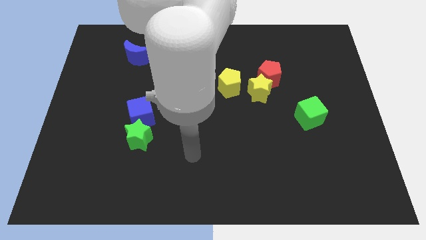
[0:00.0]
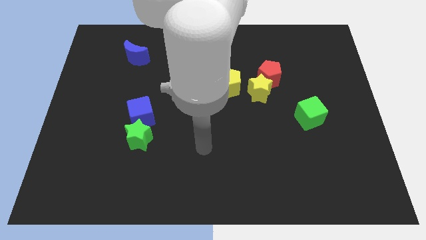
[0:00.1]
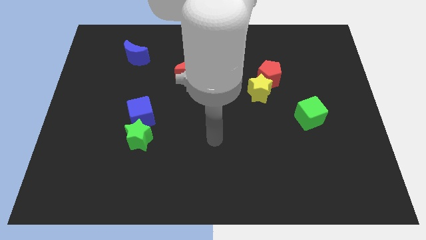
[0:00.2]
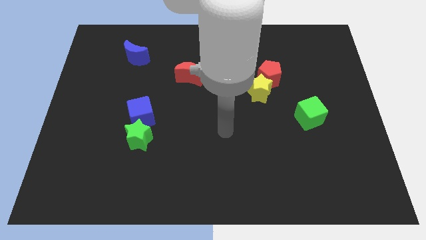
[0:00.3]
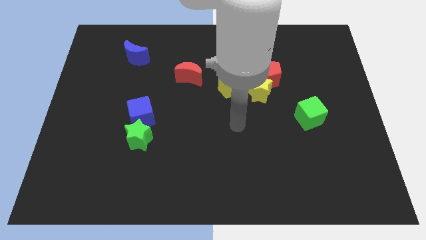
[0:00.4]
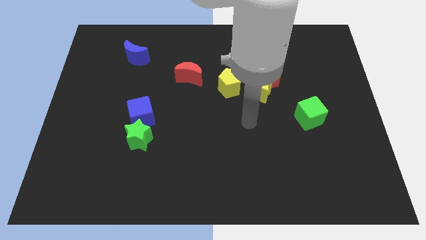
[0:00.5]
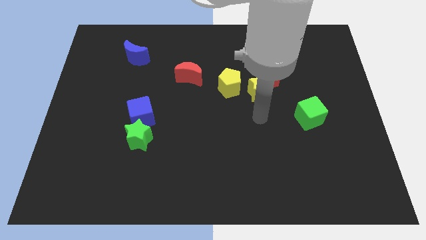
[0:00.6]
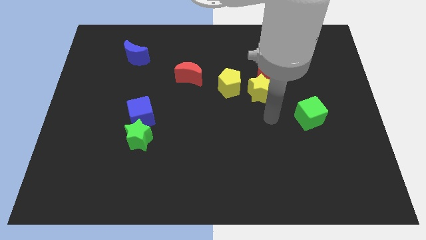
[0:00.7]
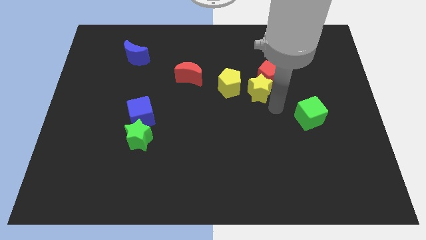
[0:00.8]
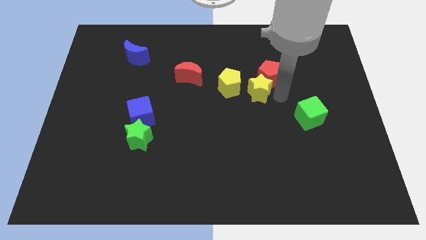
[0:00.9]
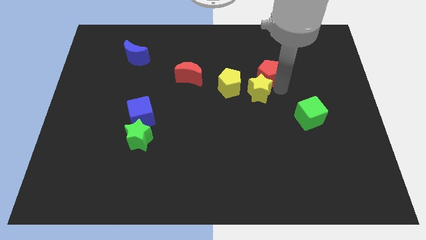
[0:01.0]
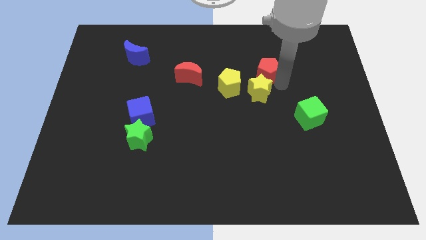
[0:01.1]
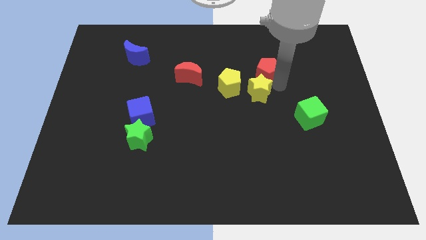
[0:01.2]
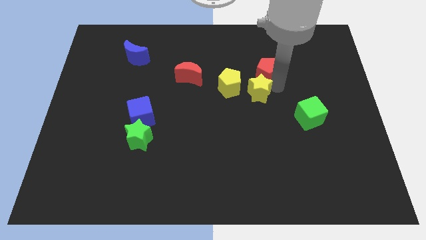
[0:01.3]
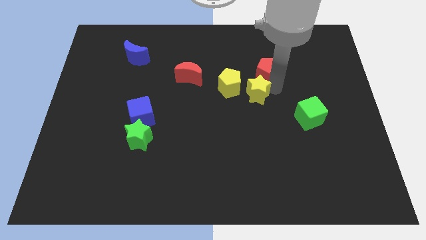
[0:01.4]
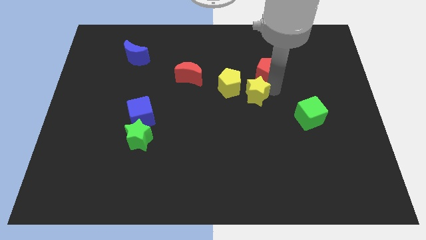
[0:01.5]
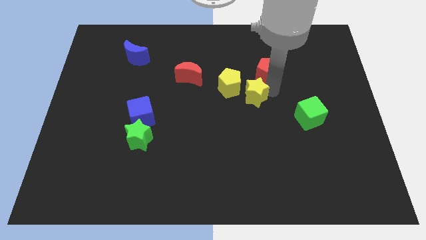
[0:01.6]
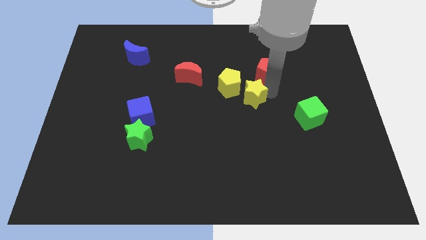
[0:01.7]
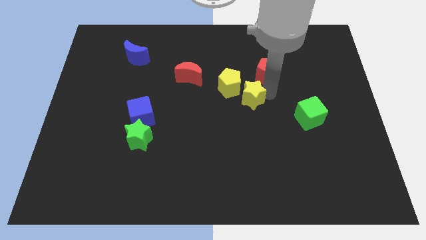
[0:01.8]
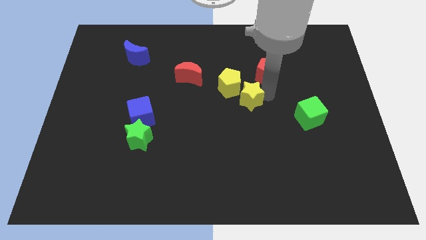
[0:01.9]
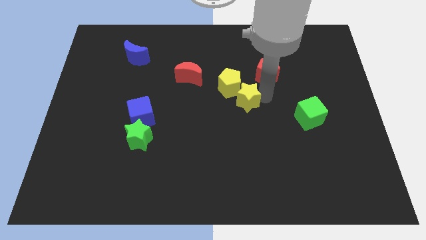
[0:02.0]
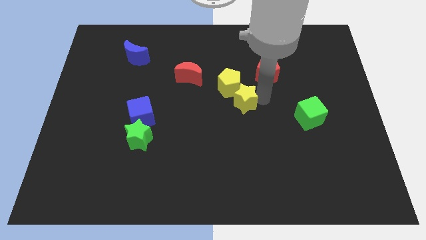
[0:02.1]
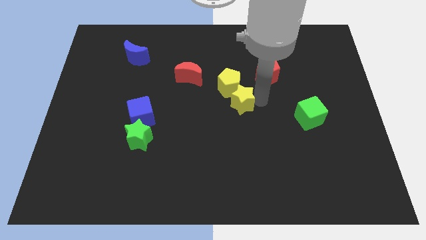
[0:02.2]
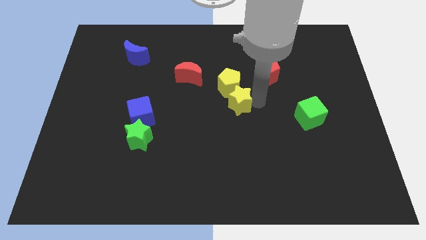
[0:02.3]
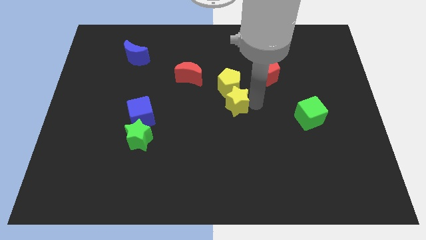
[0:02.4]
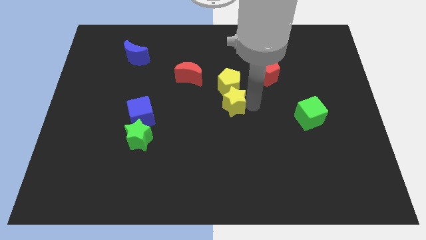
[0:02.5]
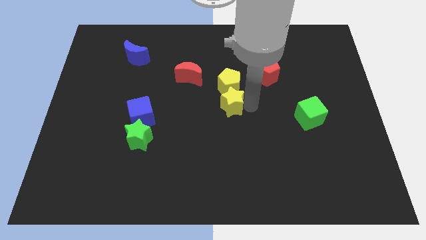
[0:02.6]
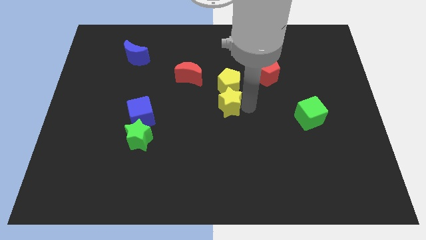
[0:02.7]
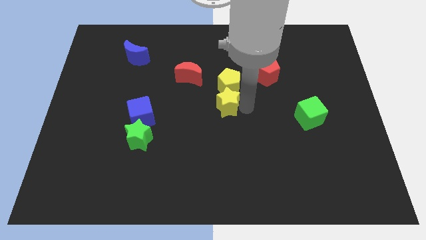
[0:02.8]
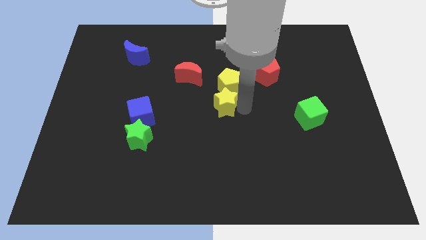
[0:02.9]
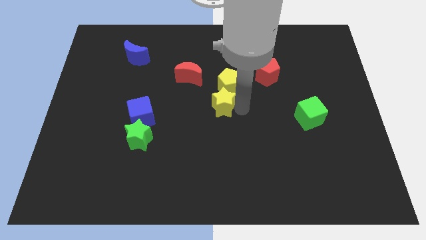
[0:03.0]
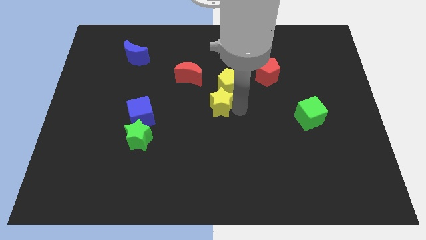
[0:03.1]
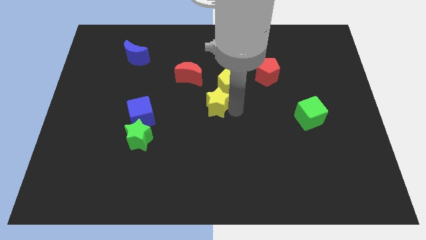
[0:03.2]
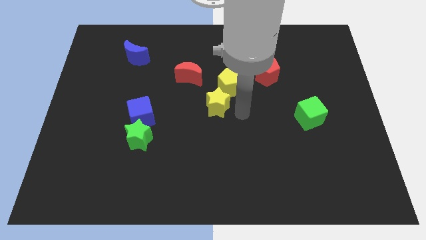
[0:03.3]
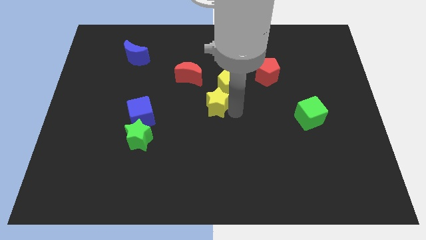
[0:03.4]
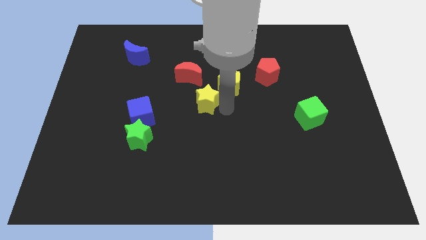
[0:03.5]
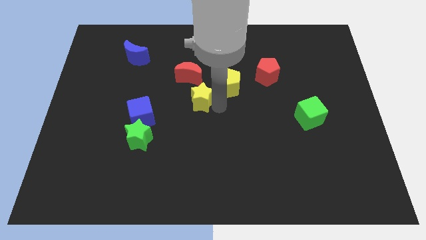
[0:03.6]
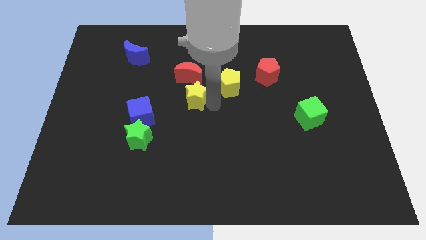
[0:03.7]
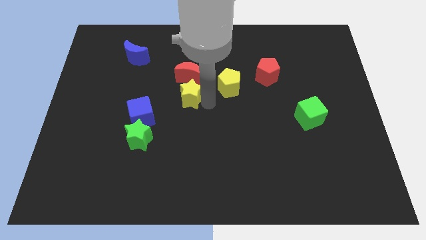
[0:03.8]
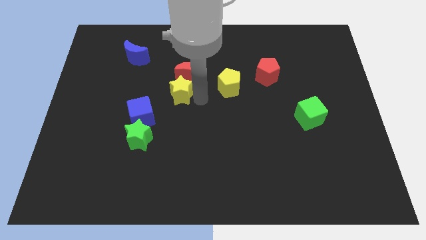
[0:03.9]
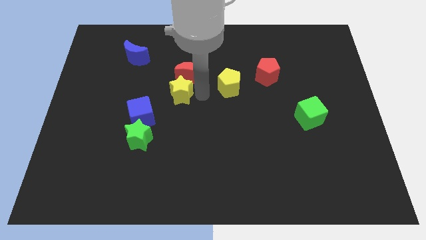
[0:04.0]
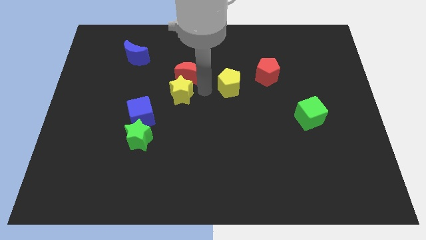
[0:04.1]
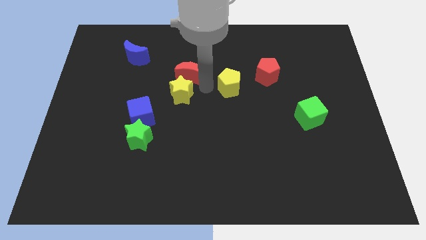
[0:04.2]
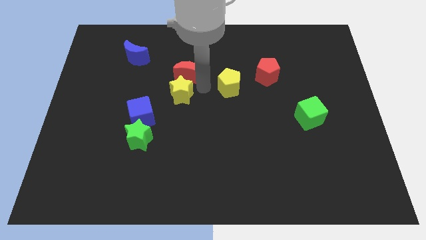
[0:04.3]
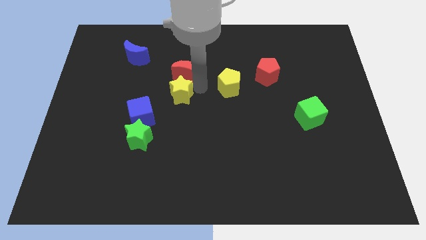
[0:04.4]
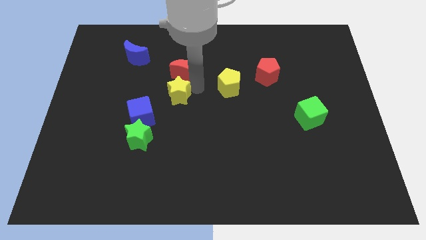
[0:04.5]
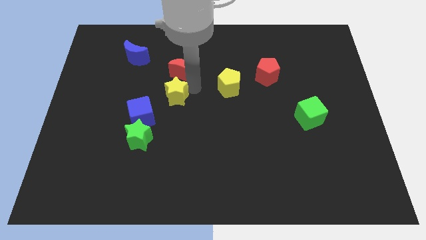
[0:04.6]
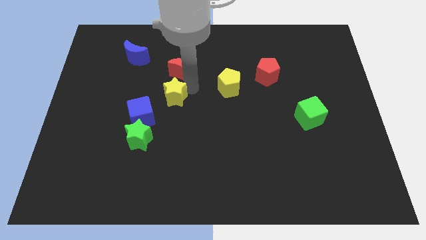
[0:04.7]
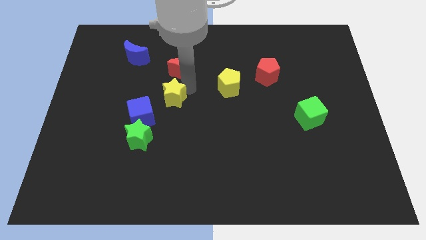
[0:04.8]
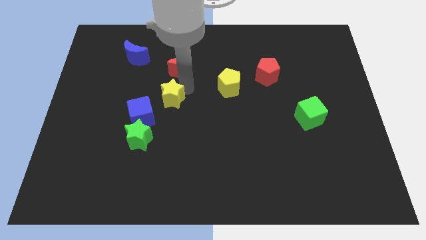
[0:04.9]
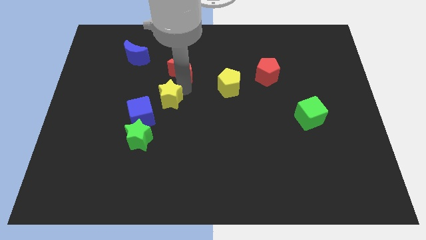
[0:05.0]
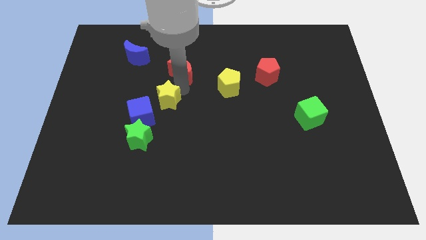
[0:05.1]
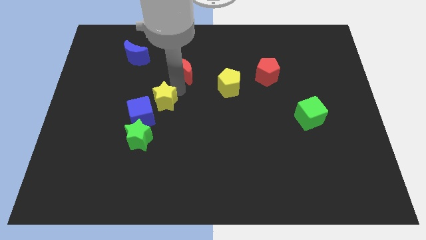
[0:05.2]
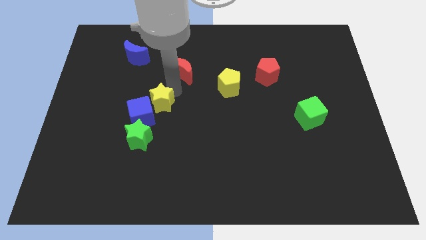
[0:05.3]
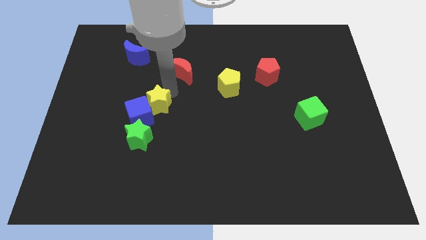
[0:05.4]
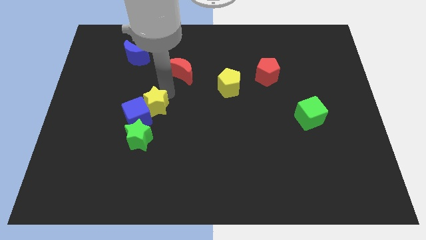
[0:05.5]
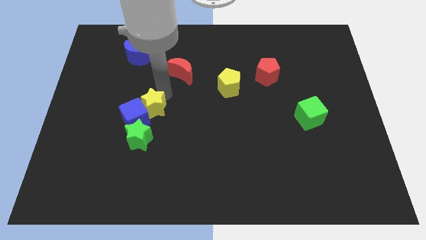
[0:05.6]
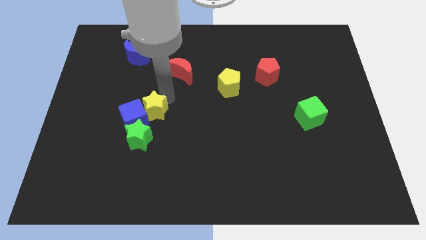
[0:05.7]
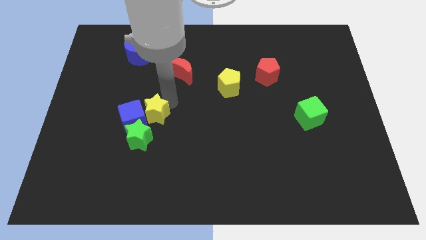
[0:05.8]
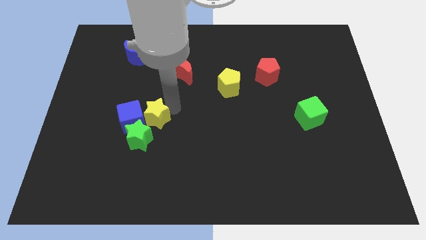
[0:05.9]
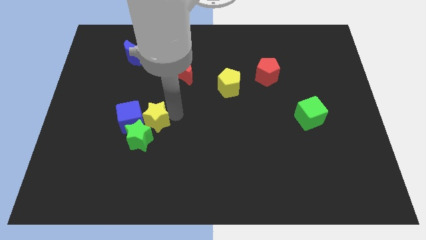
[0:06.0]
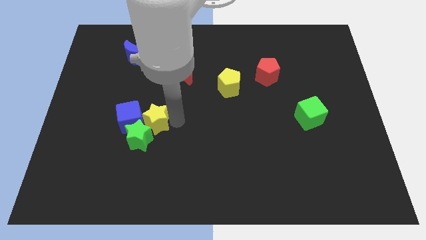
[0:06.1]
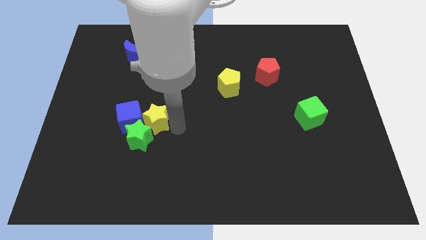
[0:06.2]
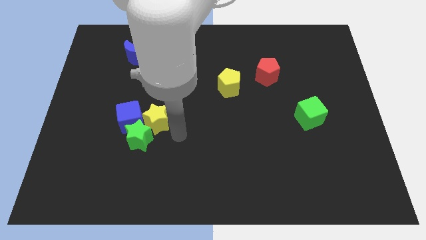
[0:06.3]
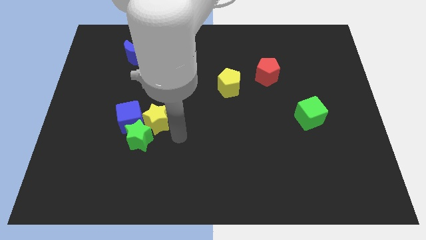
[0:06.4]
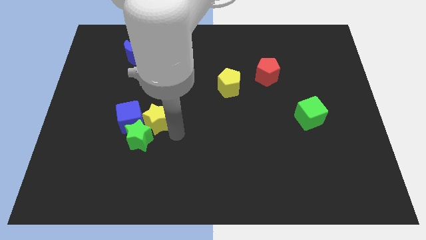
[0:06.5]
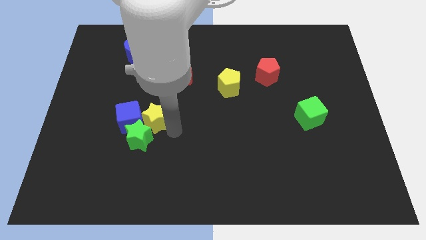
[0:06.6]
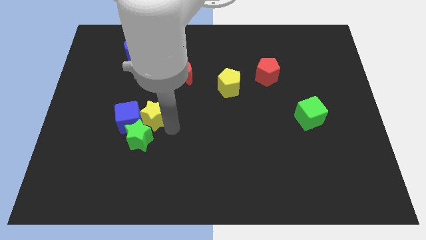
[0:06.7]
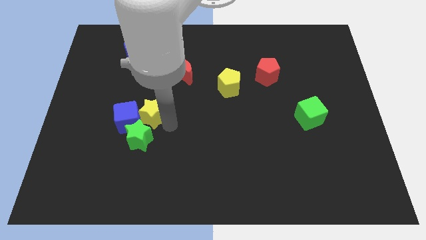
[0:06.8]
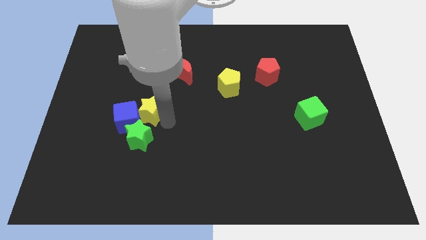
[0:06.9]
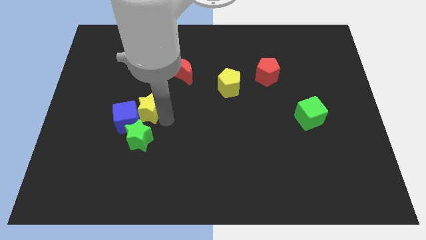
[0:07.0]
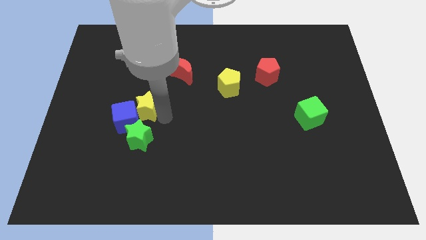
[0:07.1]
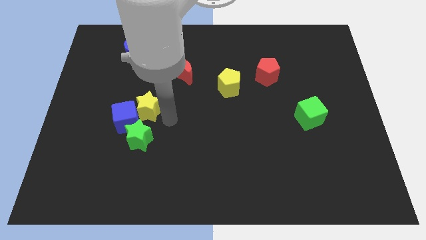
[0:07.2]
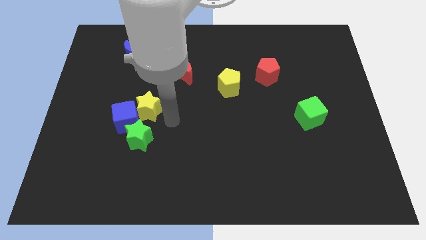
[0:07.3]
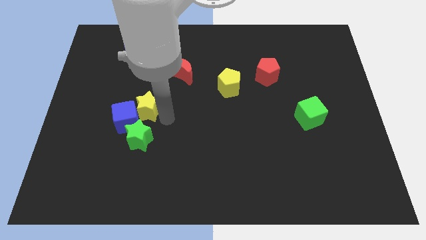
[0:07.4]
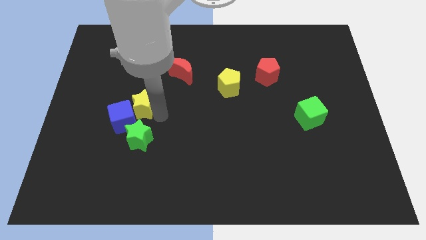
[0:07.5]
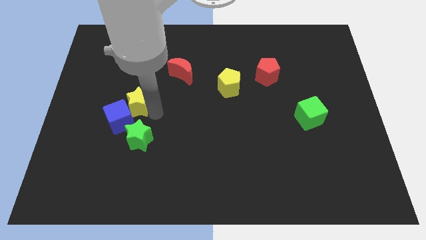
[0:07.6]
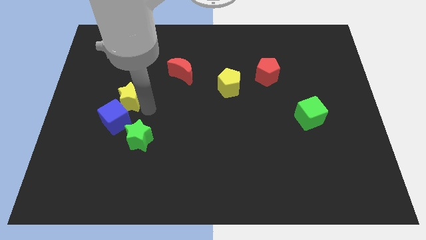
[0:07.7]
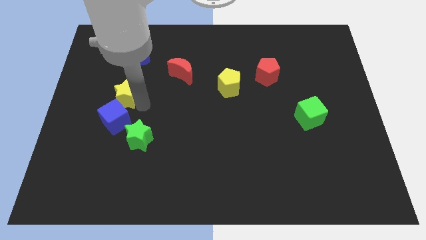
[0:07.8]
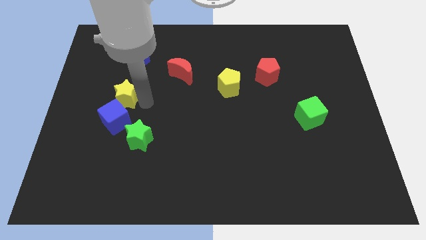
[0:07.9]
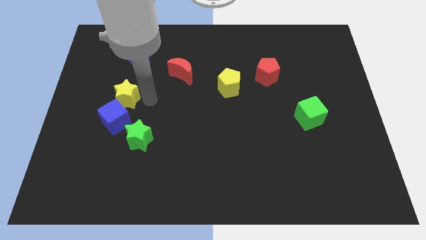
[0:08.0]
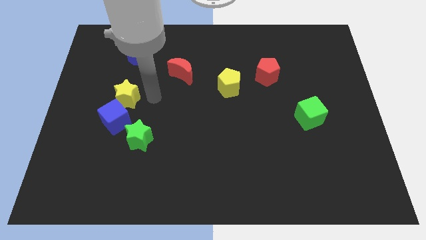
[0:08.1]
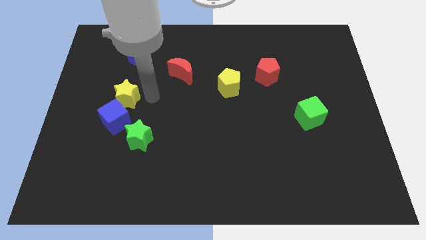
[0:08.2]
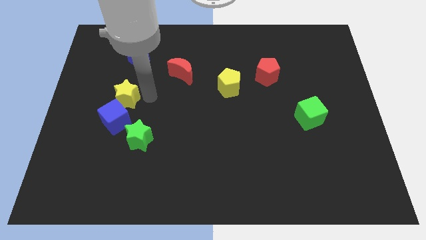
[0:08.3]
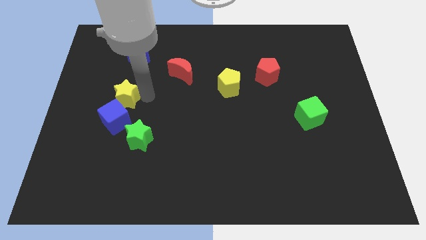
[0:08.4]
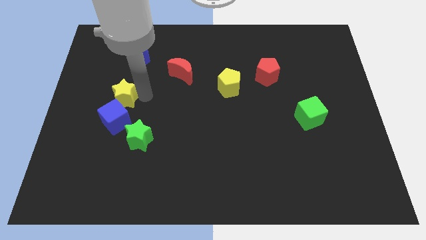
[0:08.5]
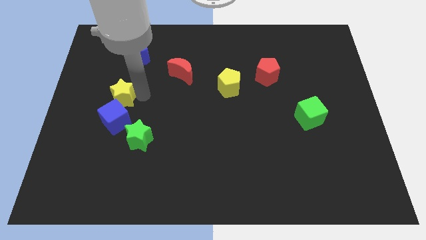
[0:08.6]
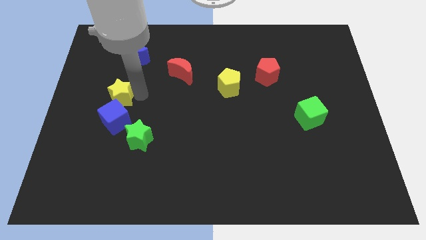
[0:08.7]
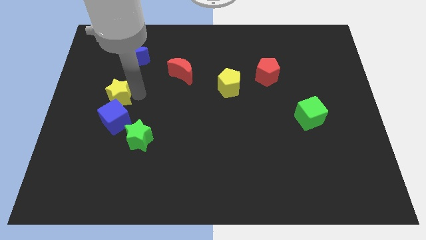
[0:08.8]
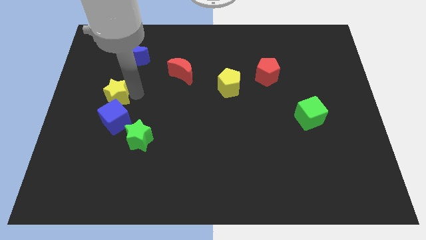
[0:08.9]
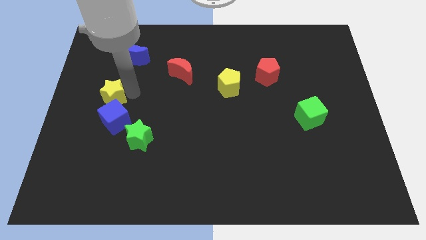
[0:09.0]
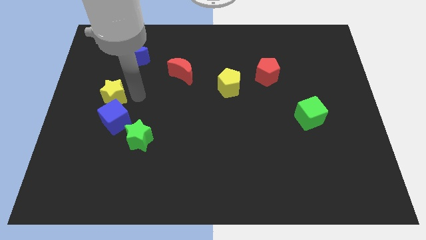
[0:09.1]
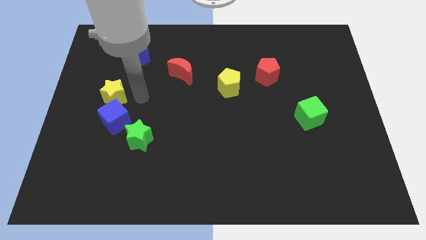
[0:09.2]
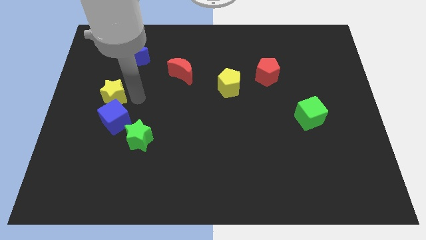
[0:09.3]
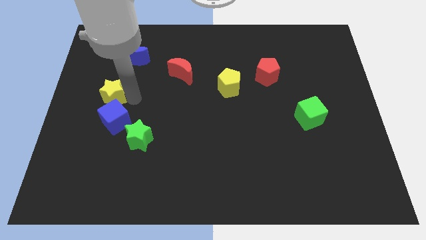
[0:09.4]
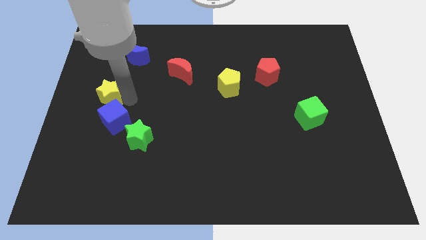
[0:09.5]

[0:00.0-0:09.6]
slide the yellow star to the left side of the board
